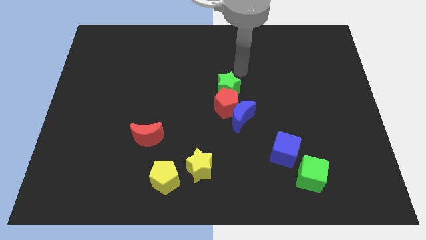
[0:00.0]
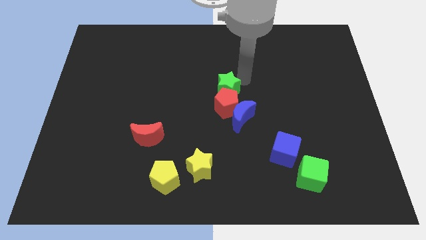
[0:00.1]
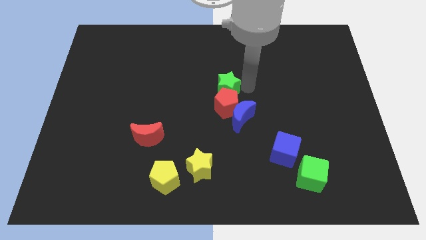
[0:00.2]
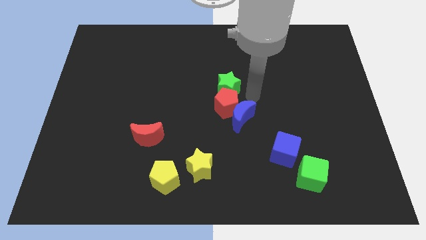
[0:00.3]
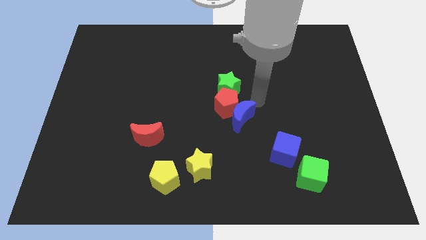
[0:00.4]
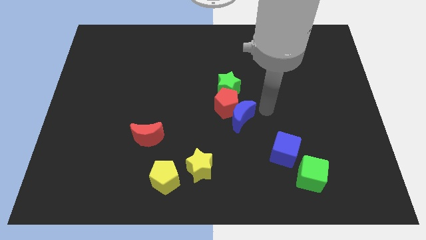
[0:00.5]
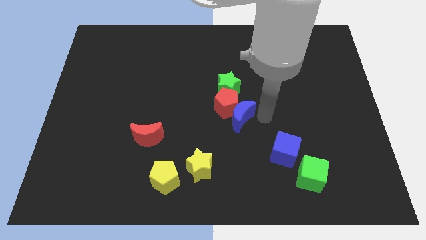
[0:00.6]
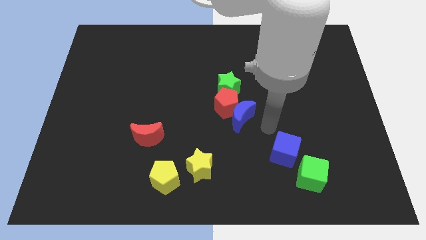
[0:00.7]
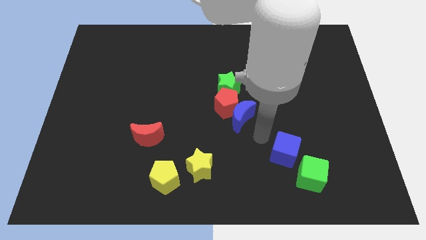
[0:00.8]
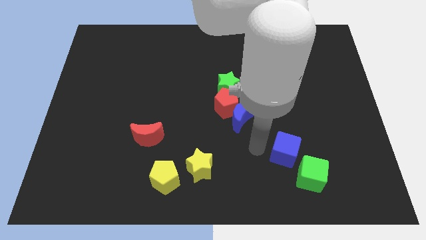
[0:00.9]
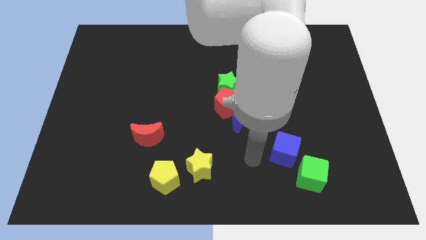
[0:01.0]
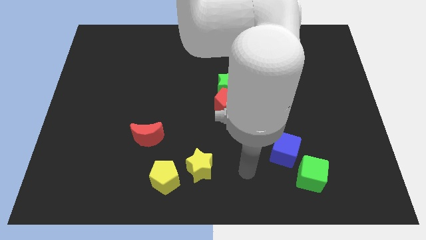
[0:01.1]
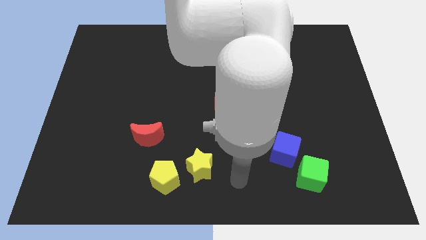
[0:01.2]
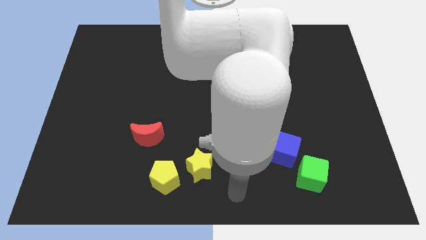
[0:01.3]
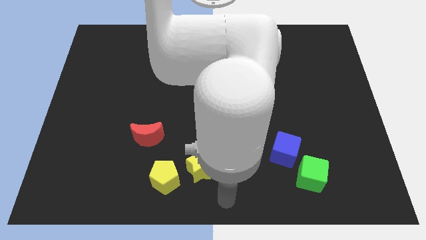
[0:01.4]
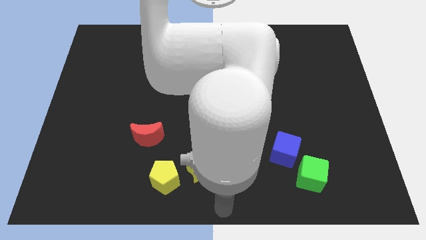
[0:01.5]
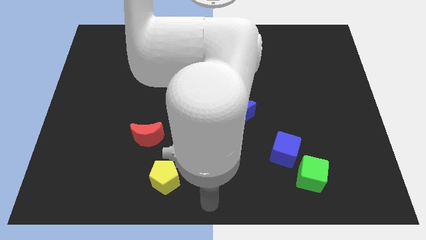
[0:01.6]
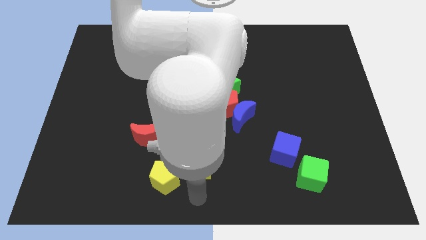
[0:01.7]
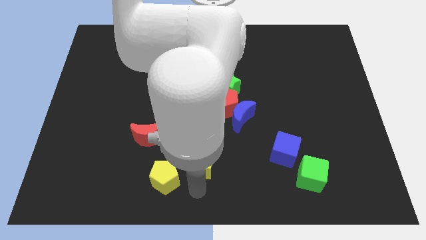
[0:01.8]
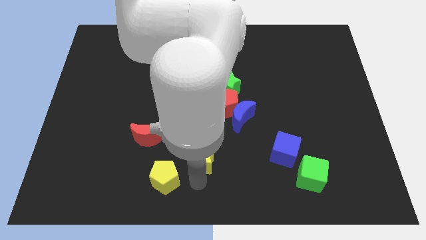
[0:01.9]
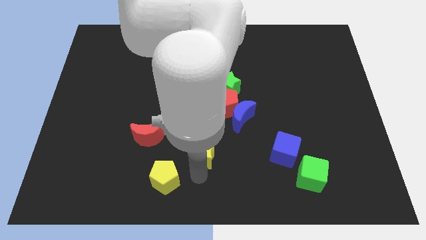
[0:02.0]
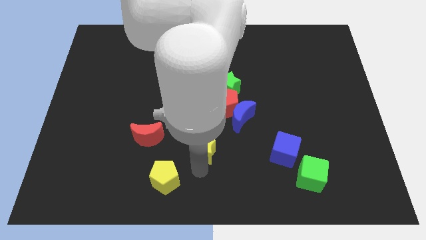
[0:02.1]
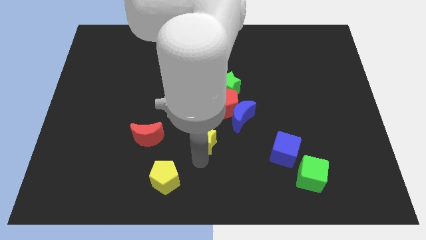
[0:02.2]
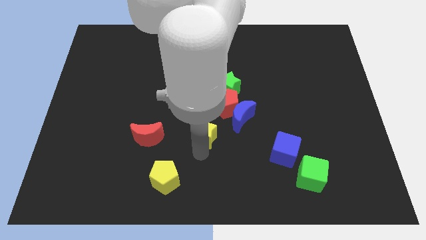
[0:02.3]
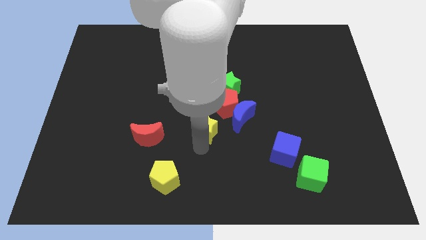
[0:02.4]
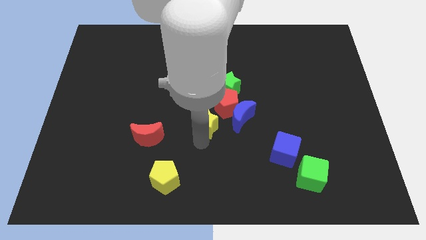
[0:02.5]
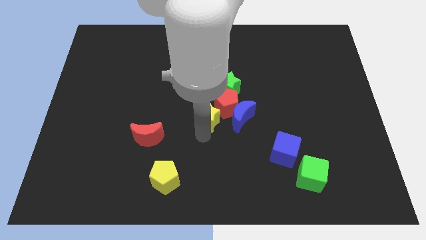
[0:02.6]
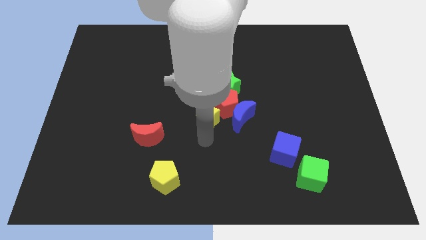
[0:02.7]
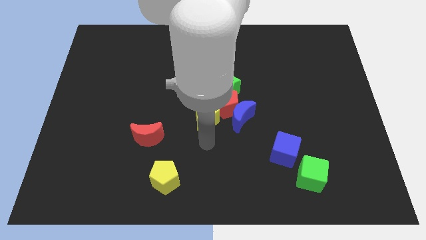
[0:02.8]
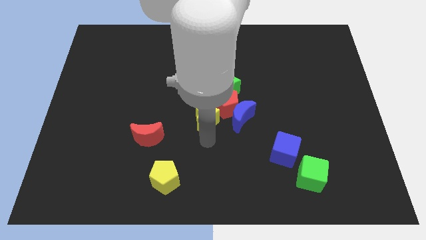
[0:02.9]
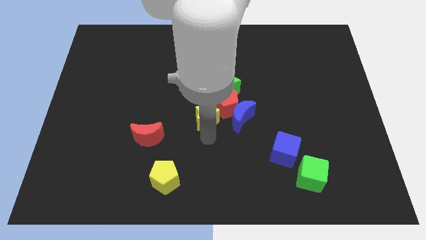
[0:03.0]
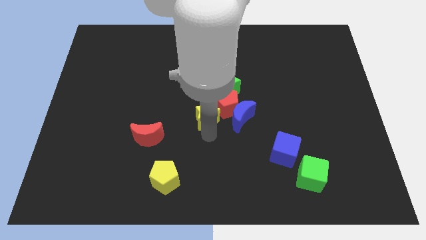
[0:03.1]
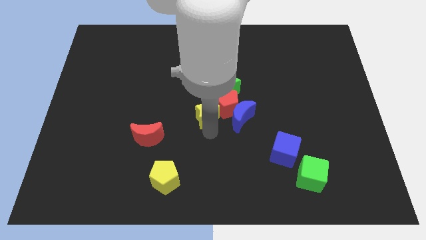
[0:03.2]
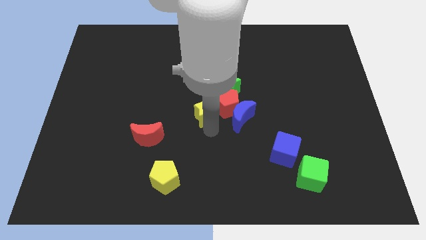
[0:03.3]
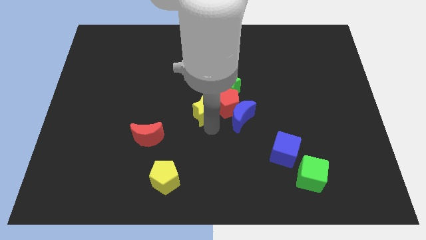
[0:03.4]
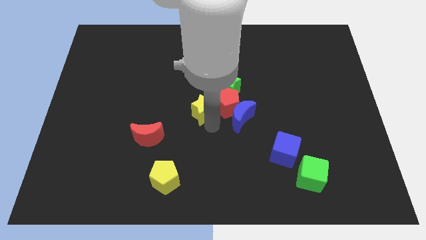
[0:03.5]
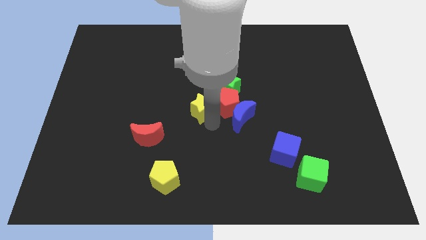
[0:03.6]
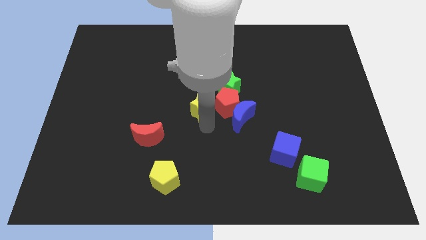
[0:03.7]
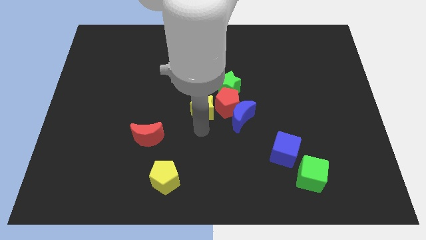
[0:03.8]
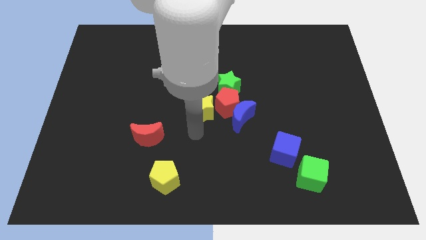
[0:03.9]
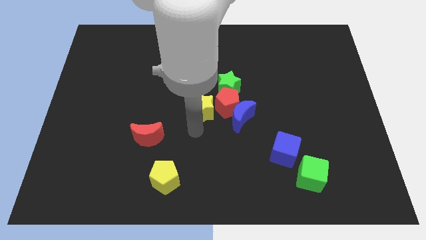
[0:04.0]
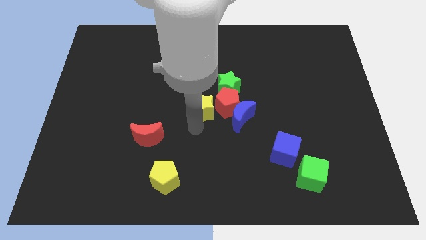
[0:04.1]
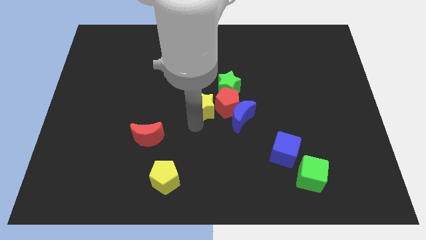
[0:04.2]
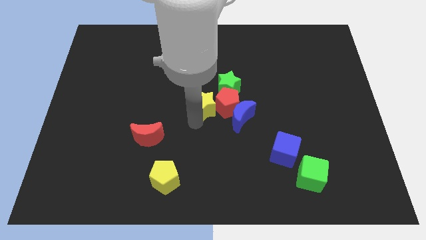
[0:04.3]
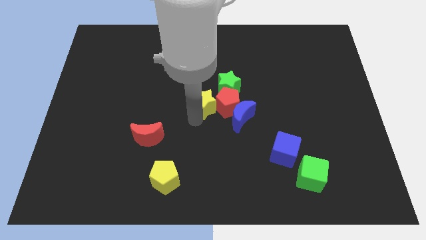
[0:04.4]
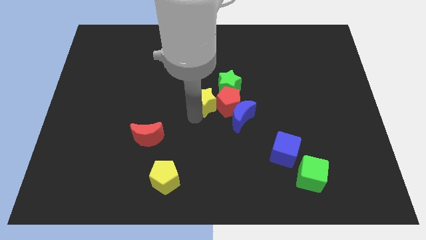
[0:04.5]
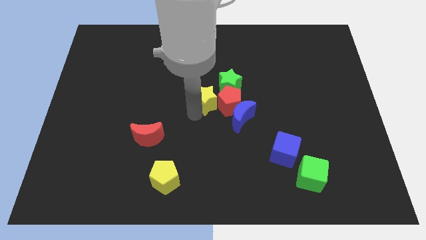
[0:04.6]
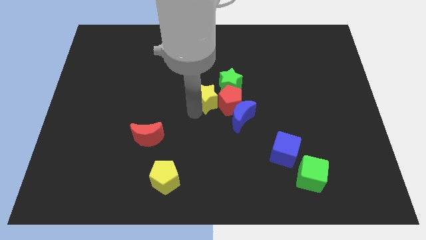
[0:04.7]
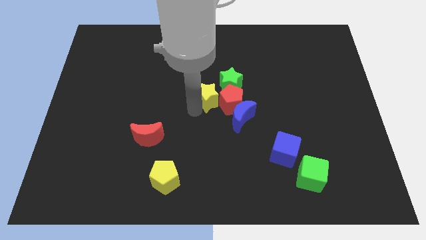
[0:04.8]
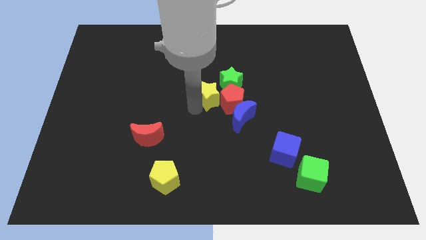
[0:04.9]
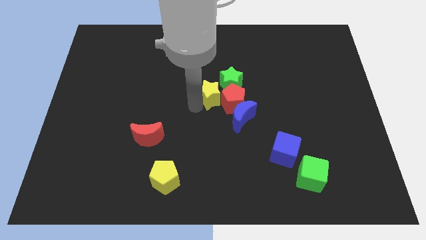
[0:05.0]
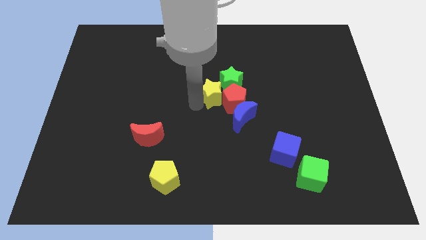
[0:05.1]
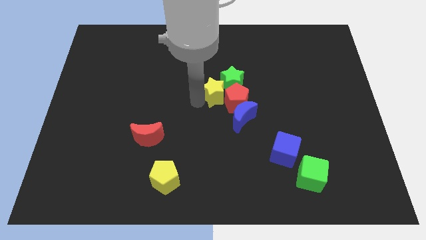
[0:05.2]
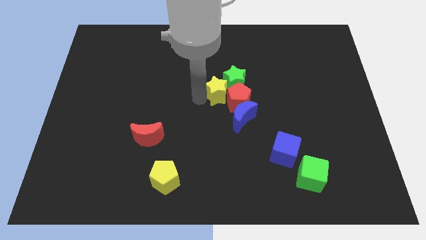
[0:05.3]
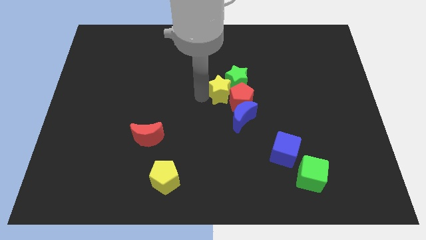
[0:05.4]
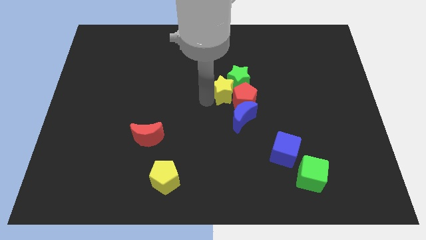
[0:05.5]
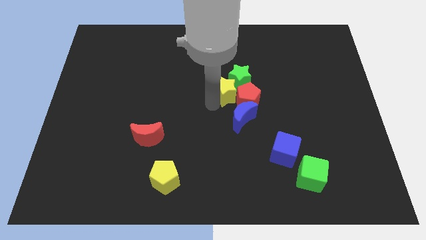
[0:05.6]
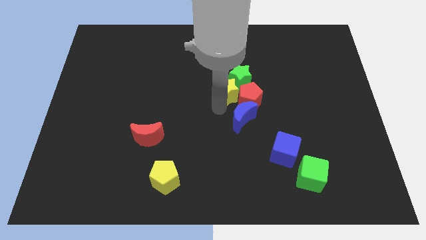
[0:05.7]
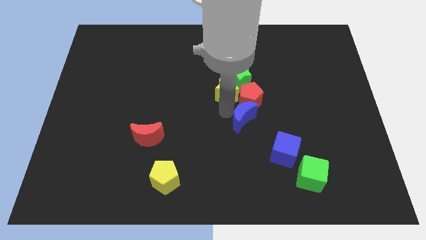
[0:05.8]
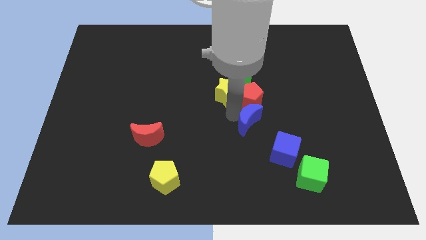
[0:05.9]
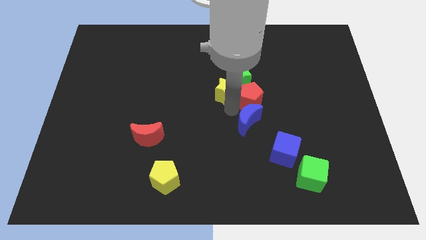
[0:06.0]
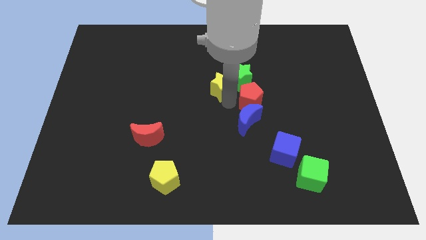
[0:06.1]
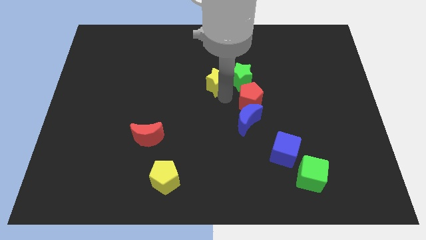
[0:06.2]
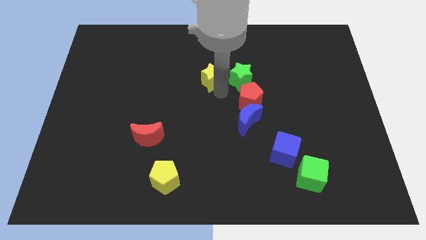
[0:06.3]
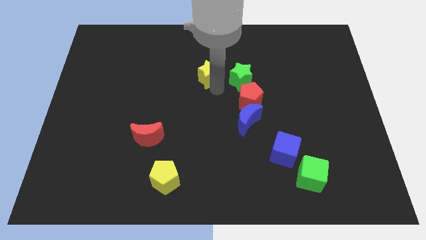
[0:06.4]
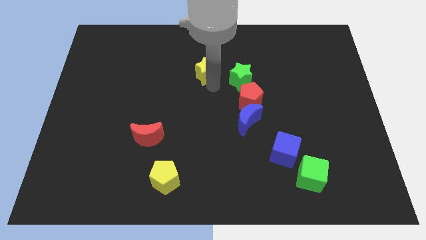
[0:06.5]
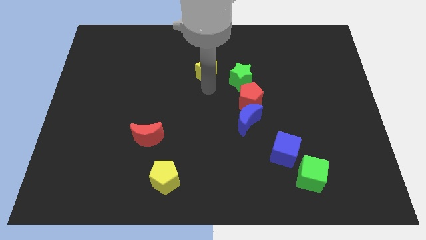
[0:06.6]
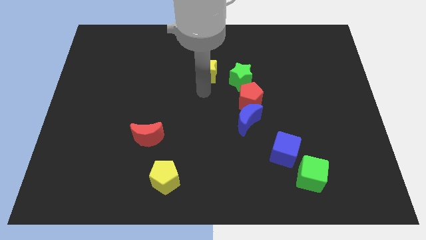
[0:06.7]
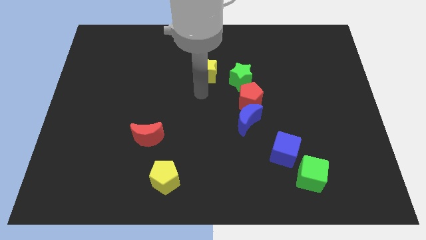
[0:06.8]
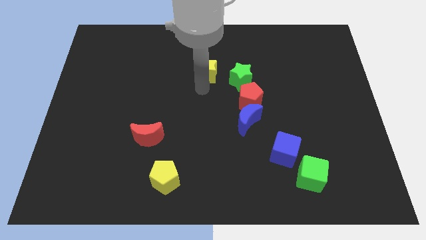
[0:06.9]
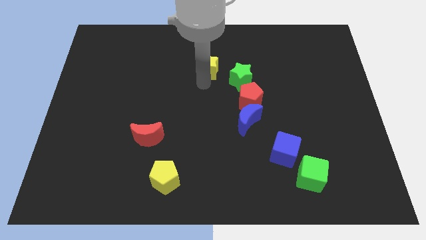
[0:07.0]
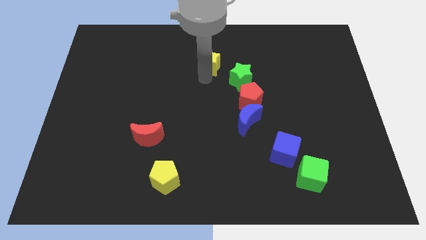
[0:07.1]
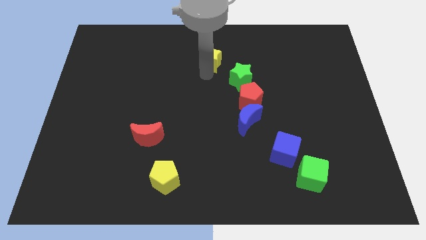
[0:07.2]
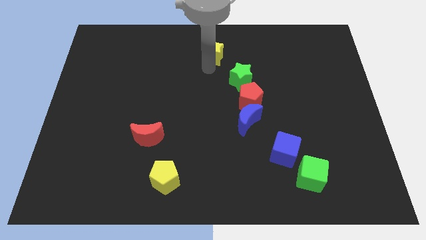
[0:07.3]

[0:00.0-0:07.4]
push the yellow star to the top
